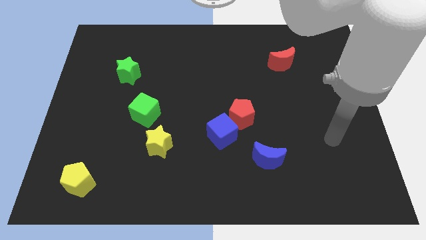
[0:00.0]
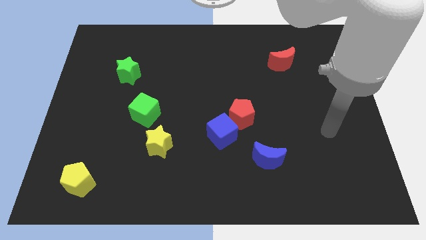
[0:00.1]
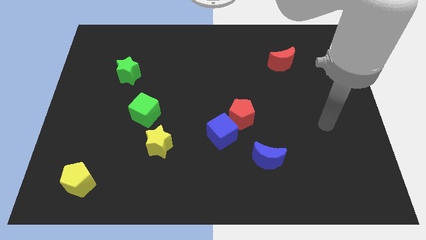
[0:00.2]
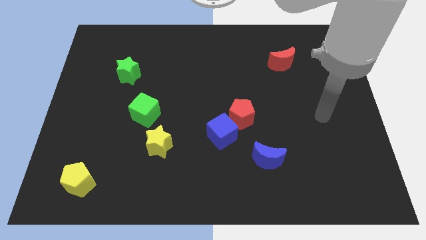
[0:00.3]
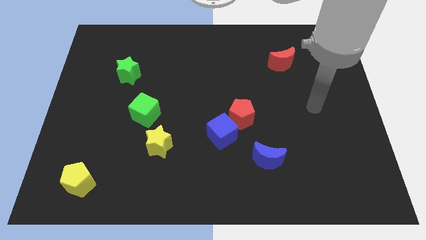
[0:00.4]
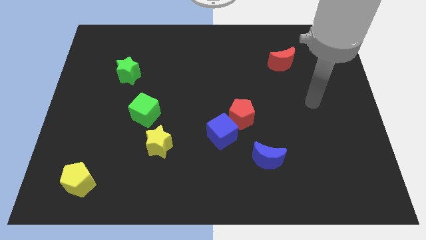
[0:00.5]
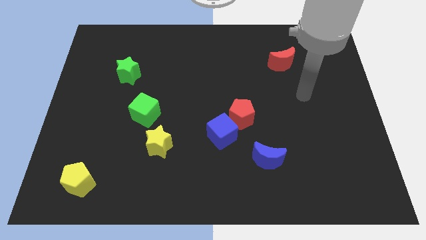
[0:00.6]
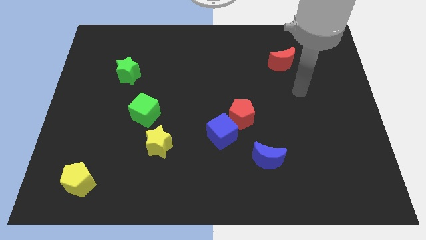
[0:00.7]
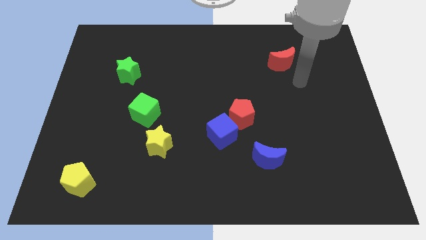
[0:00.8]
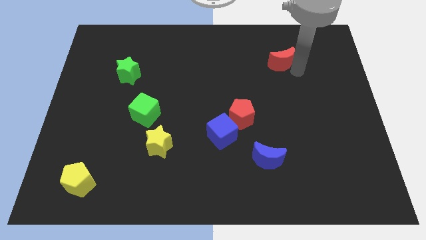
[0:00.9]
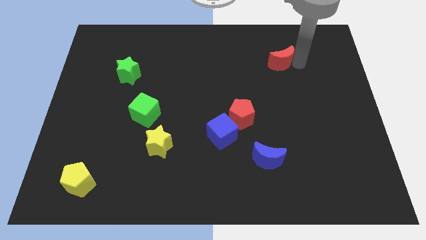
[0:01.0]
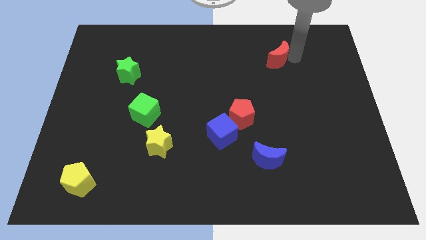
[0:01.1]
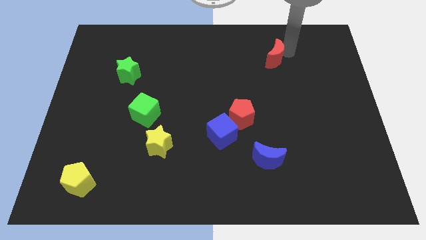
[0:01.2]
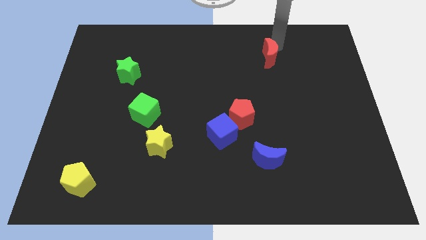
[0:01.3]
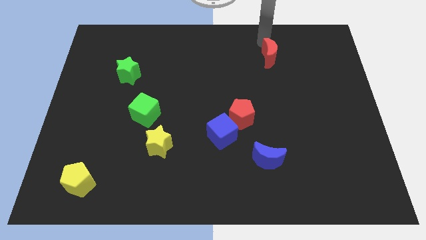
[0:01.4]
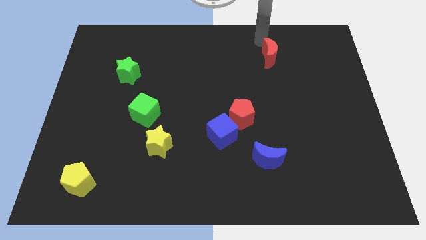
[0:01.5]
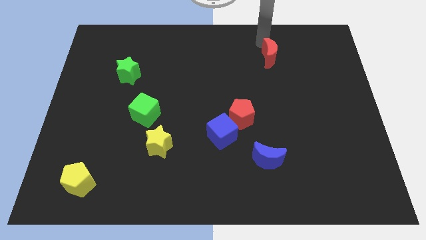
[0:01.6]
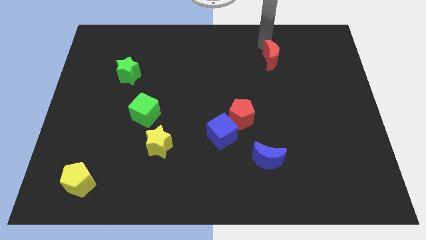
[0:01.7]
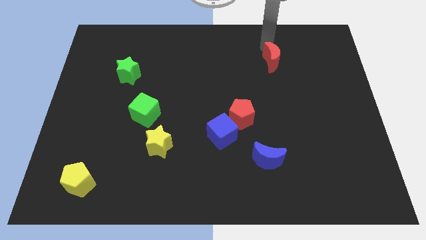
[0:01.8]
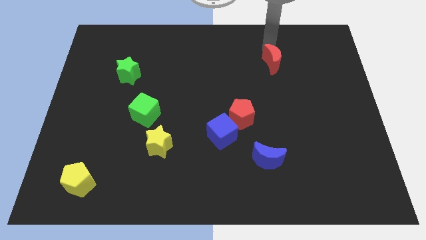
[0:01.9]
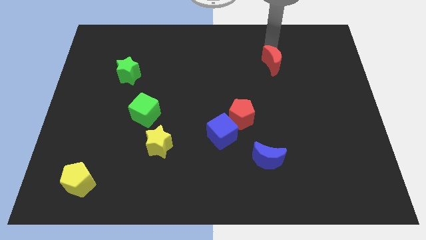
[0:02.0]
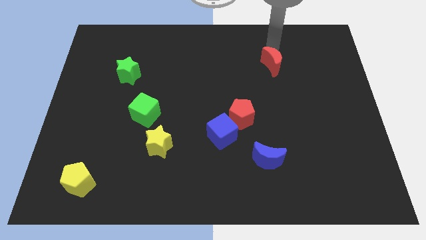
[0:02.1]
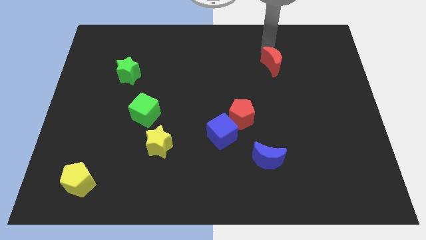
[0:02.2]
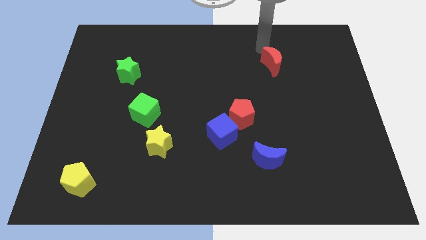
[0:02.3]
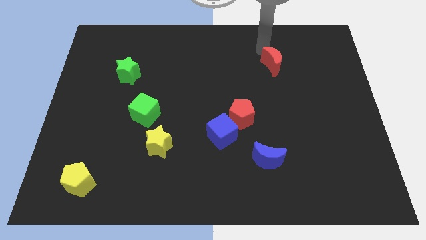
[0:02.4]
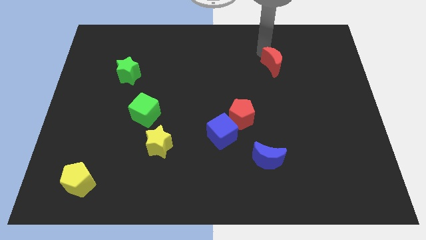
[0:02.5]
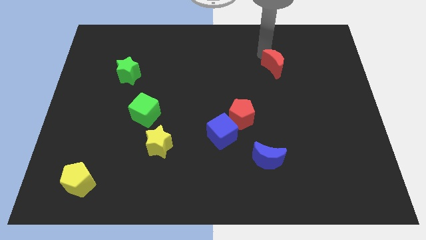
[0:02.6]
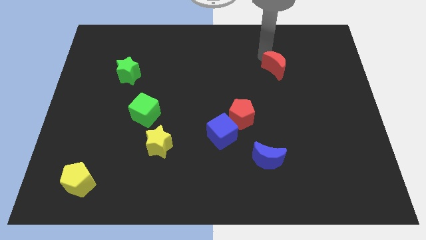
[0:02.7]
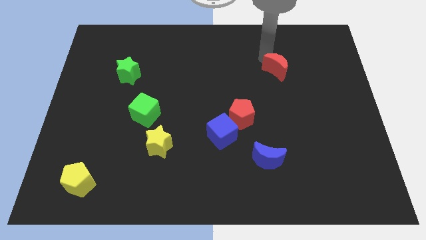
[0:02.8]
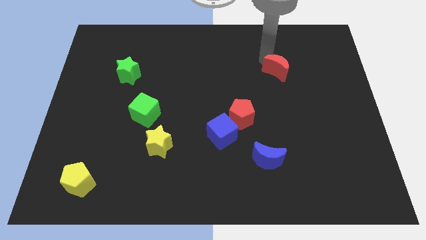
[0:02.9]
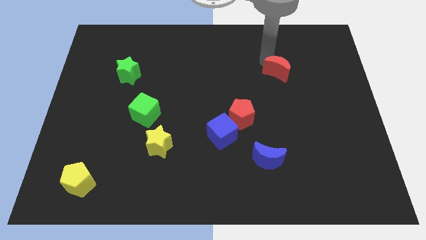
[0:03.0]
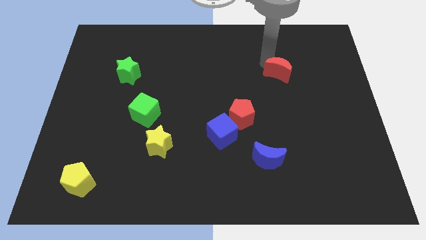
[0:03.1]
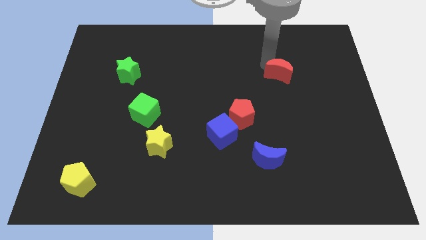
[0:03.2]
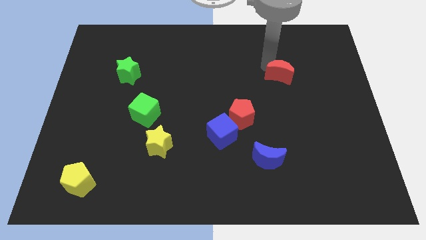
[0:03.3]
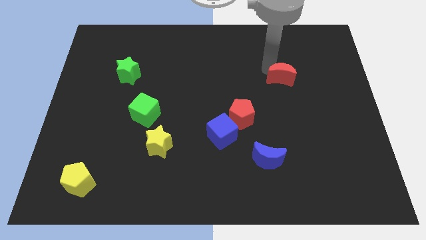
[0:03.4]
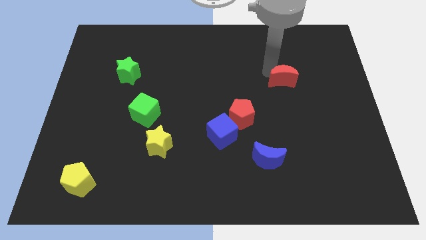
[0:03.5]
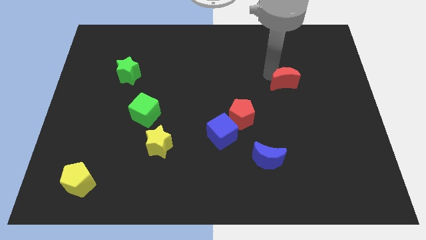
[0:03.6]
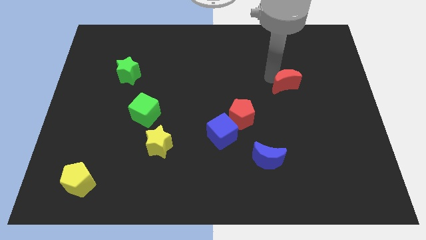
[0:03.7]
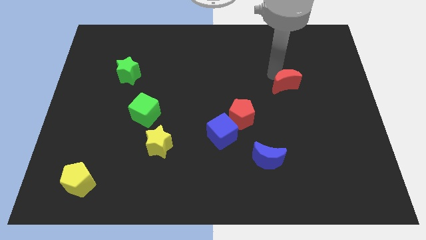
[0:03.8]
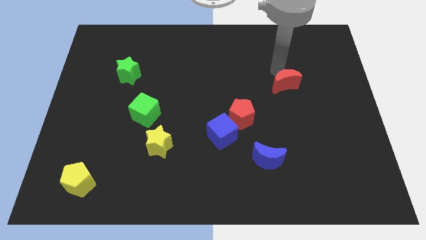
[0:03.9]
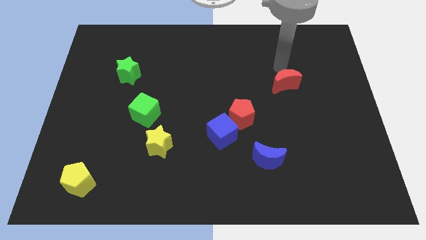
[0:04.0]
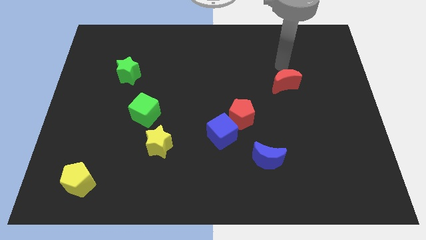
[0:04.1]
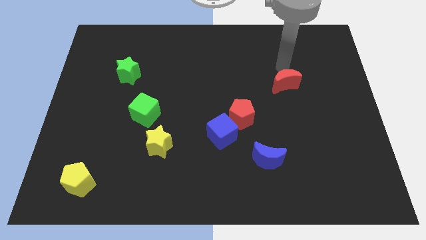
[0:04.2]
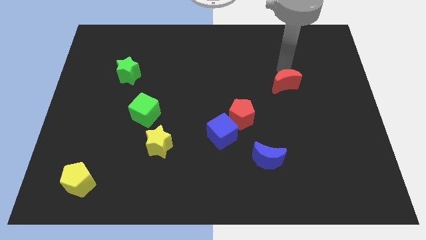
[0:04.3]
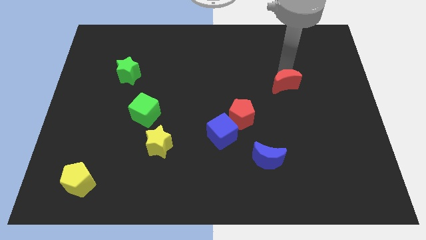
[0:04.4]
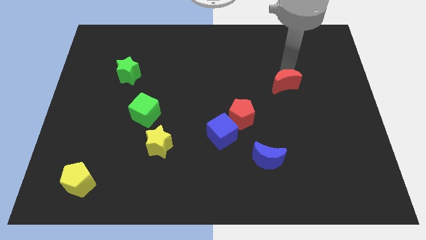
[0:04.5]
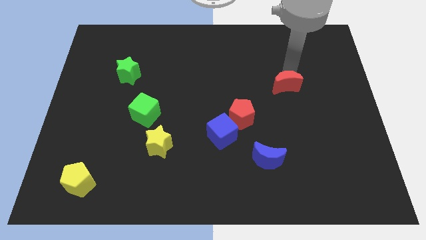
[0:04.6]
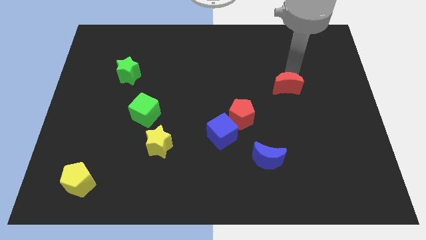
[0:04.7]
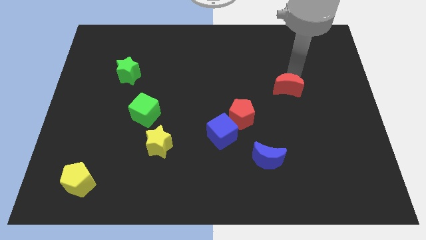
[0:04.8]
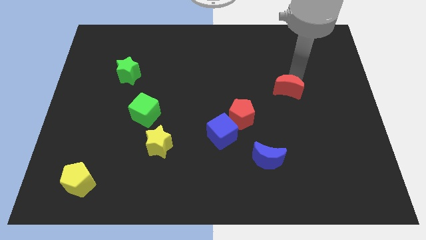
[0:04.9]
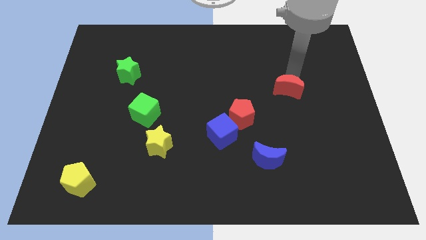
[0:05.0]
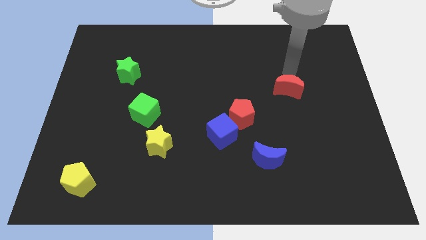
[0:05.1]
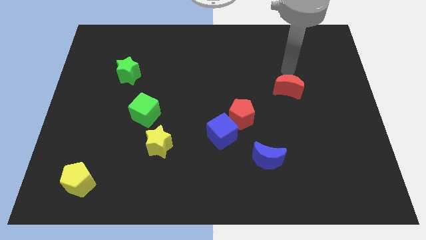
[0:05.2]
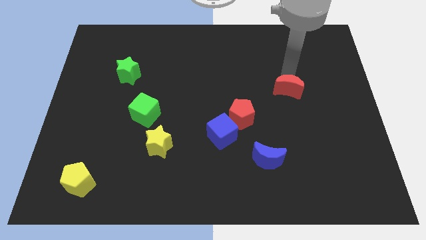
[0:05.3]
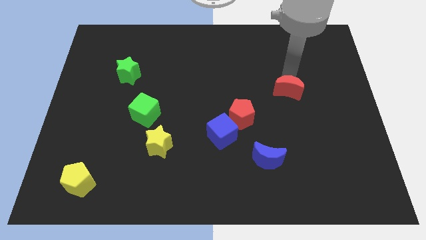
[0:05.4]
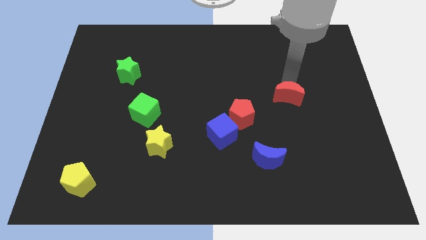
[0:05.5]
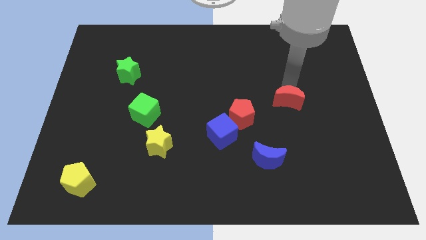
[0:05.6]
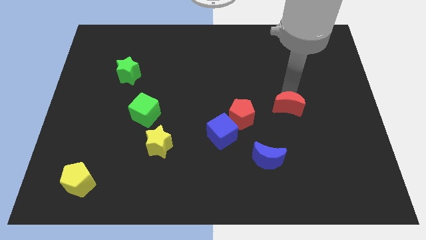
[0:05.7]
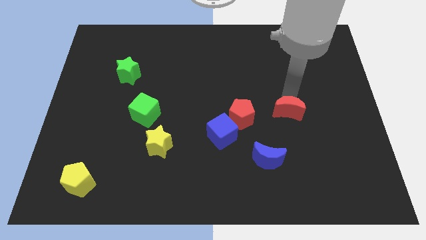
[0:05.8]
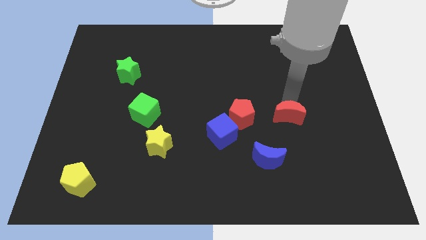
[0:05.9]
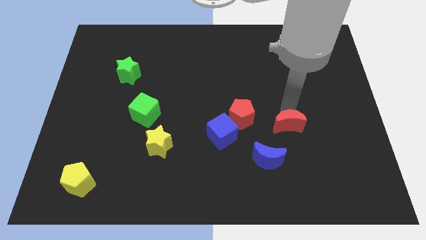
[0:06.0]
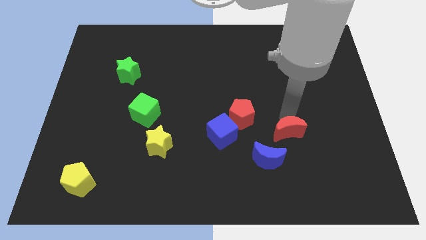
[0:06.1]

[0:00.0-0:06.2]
push the red moon down

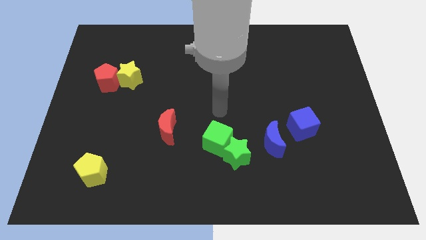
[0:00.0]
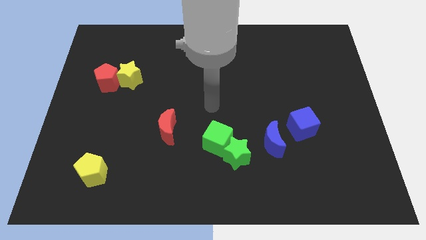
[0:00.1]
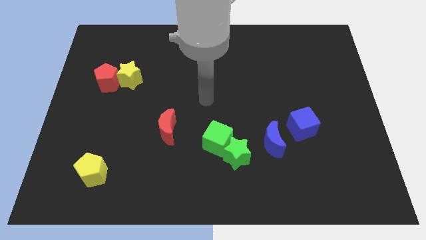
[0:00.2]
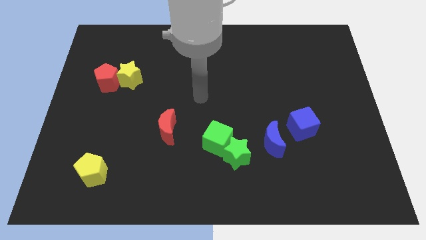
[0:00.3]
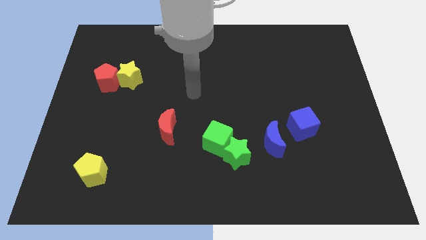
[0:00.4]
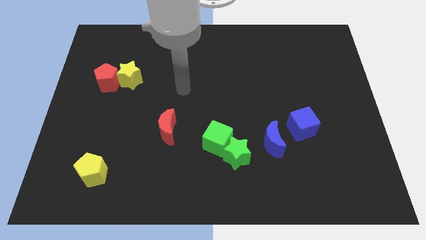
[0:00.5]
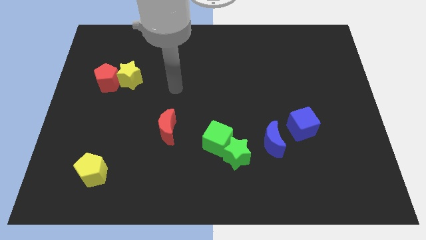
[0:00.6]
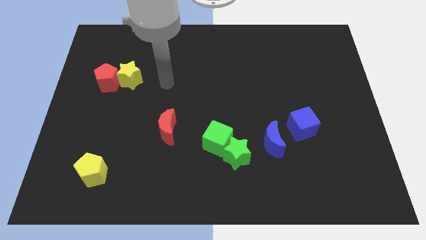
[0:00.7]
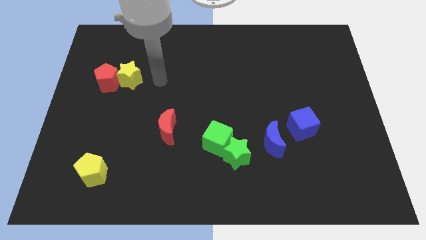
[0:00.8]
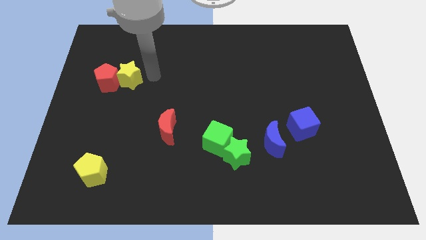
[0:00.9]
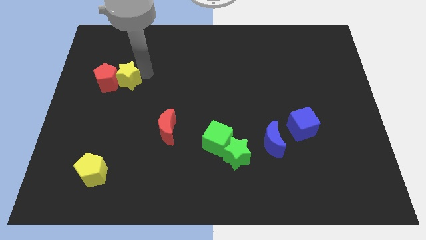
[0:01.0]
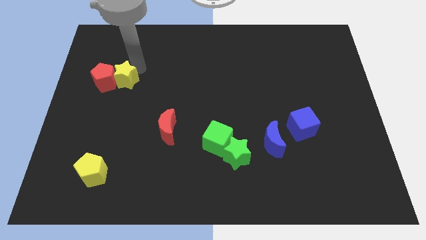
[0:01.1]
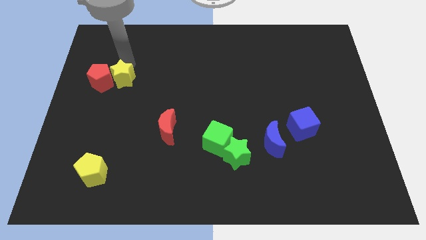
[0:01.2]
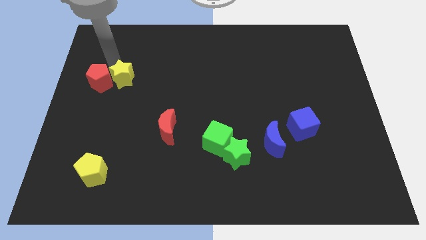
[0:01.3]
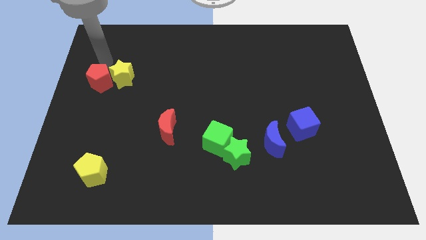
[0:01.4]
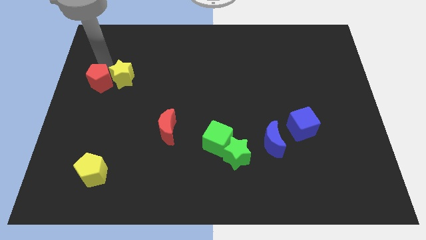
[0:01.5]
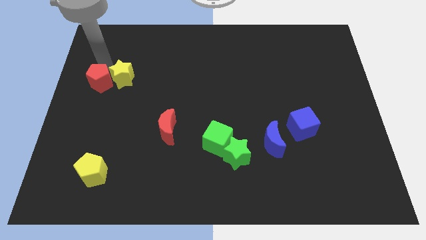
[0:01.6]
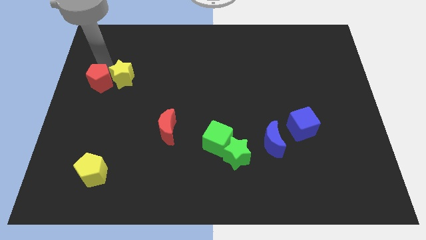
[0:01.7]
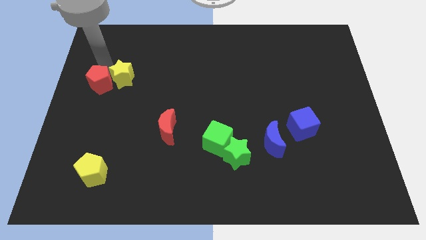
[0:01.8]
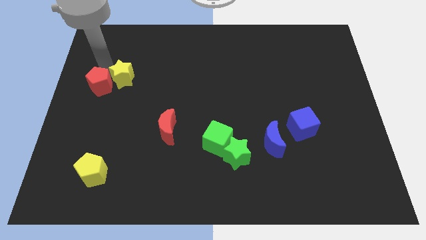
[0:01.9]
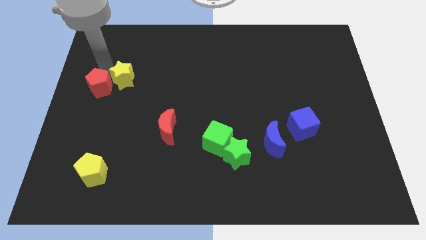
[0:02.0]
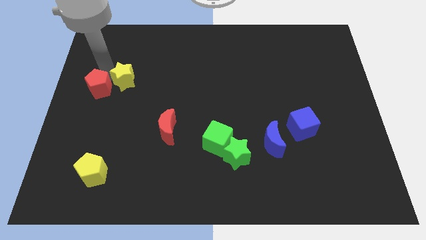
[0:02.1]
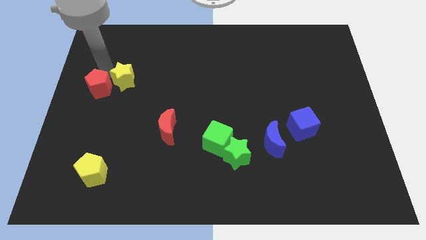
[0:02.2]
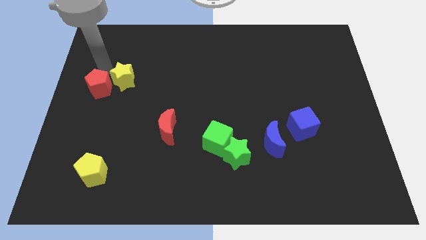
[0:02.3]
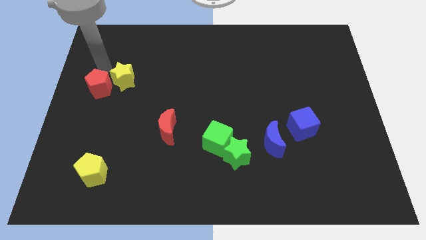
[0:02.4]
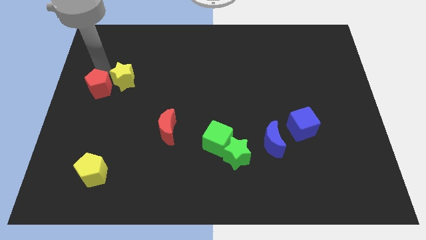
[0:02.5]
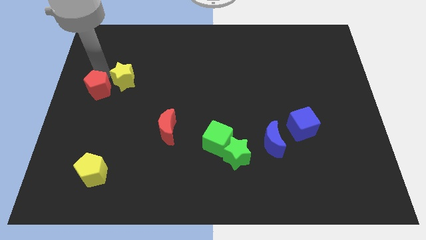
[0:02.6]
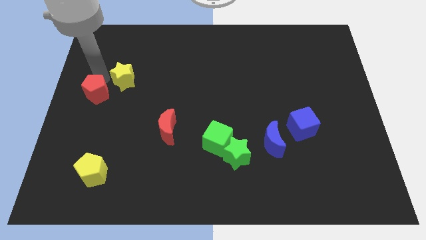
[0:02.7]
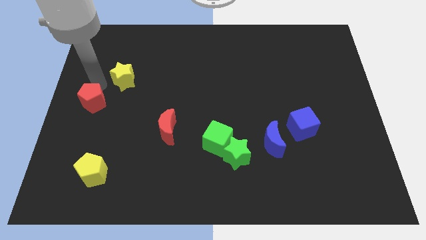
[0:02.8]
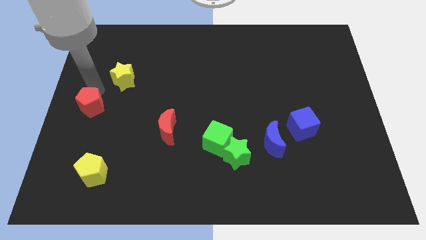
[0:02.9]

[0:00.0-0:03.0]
move the red pentagon a bit down
